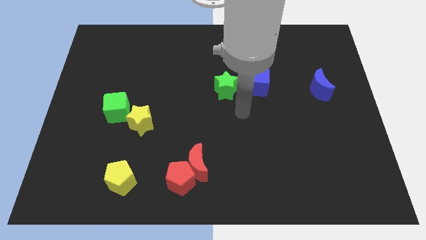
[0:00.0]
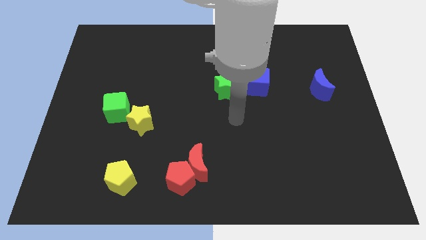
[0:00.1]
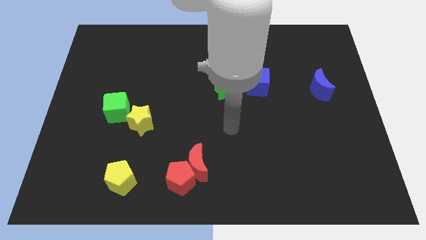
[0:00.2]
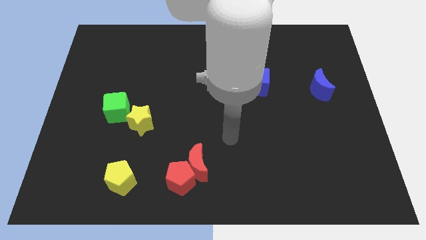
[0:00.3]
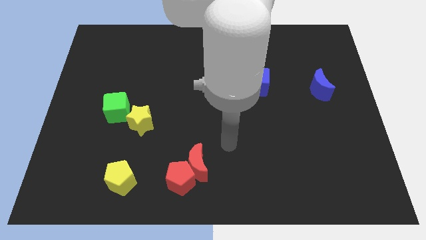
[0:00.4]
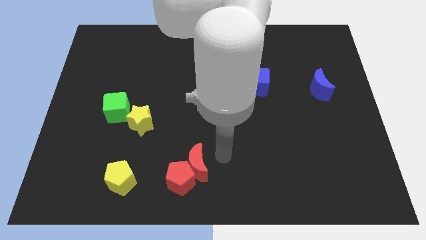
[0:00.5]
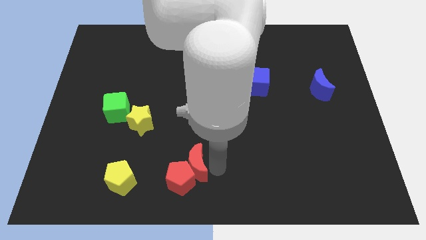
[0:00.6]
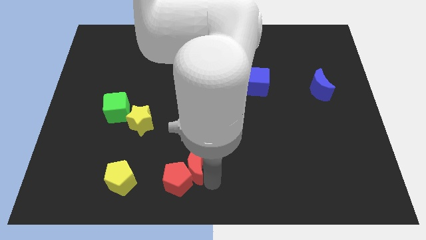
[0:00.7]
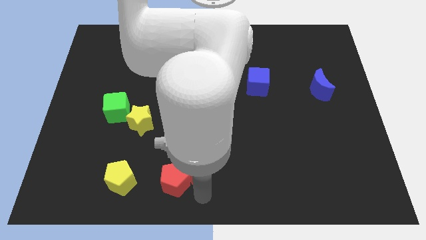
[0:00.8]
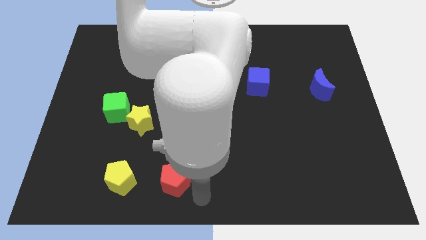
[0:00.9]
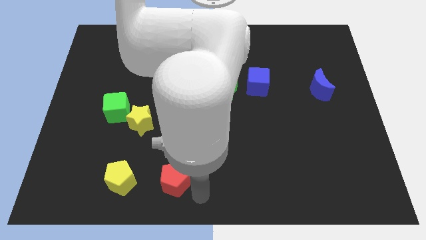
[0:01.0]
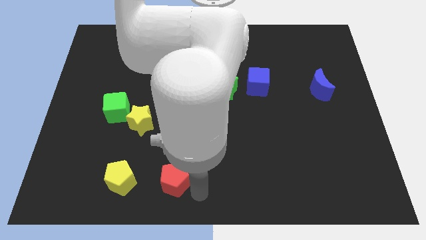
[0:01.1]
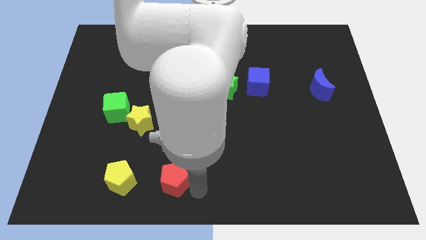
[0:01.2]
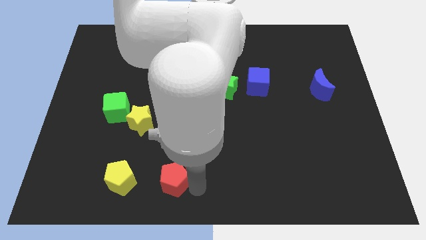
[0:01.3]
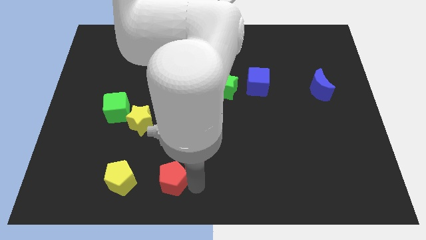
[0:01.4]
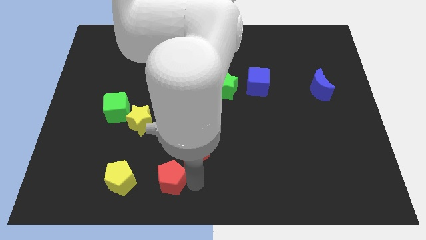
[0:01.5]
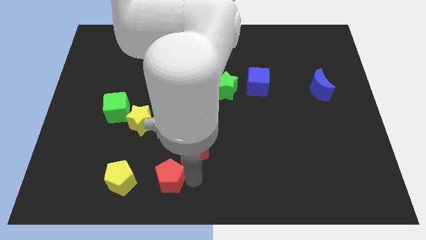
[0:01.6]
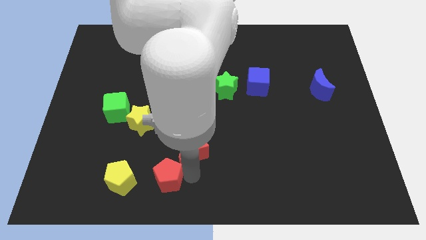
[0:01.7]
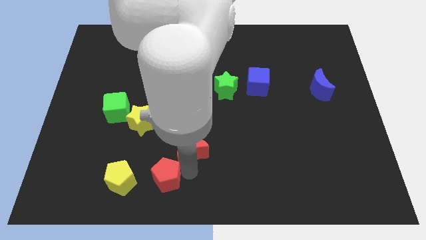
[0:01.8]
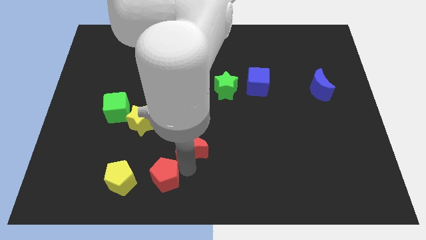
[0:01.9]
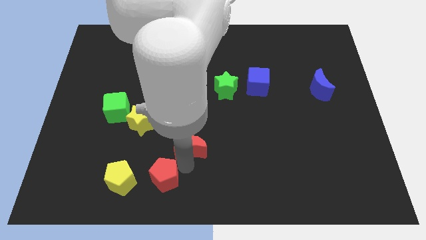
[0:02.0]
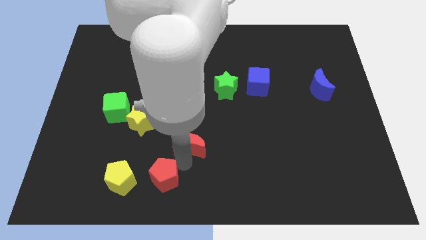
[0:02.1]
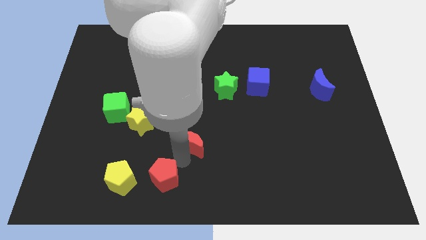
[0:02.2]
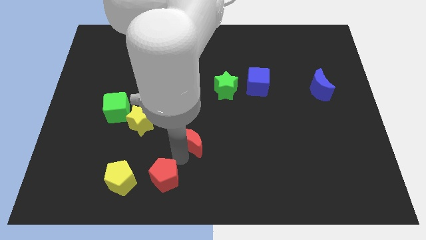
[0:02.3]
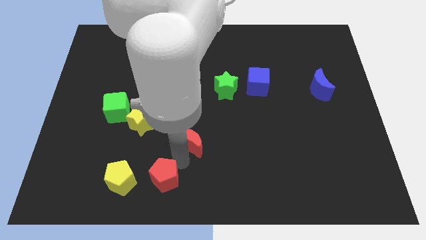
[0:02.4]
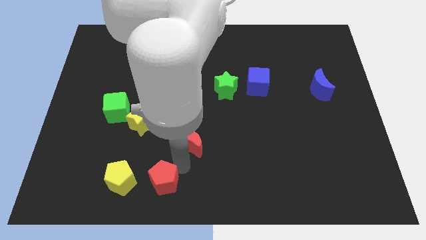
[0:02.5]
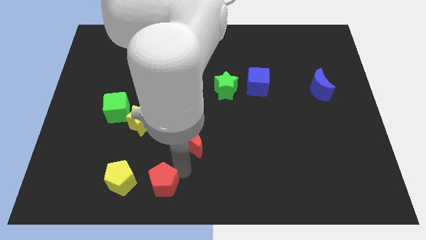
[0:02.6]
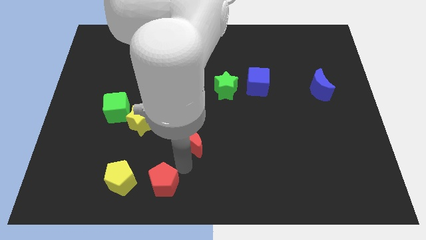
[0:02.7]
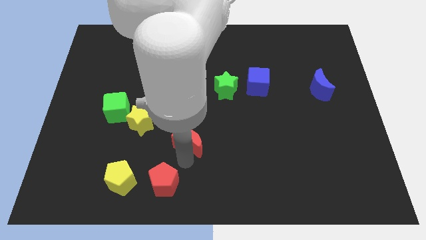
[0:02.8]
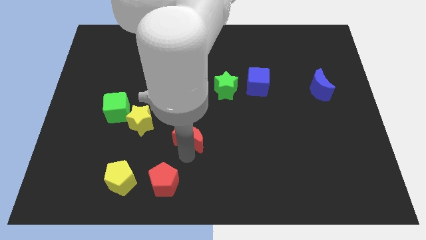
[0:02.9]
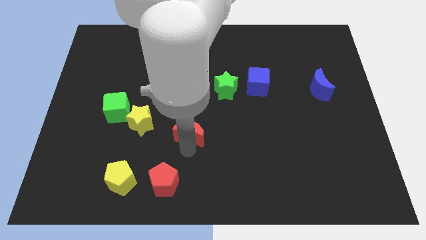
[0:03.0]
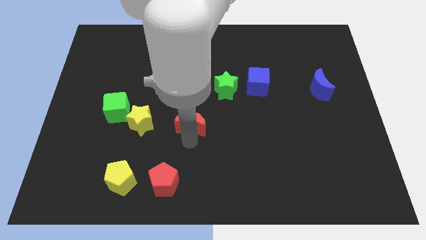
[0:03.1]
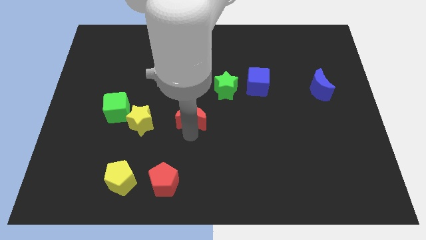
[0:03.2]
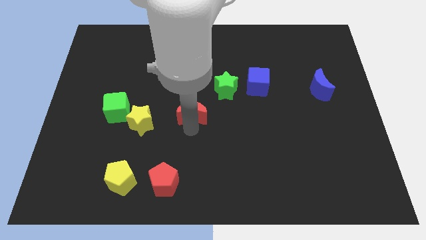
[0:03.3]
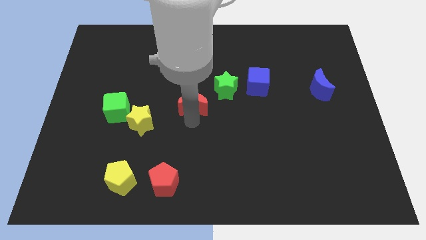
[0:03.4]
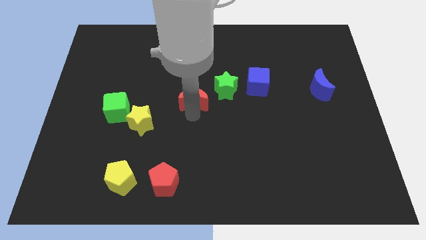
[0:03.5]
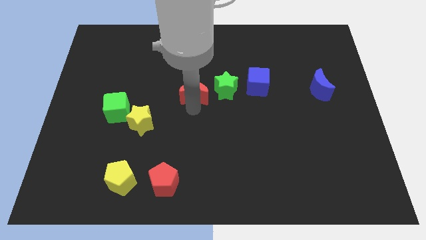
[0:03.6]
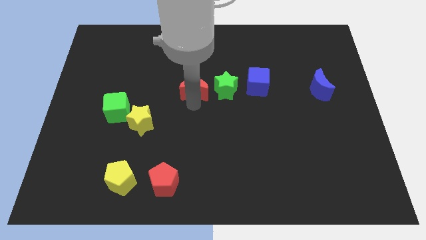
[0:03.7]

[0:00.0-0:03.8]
slide the red moon up

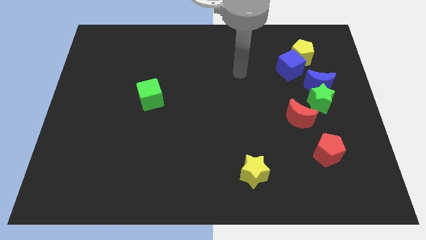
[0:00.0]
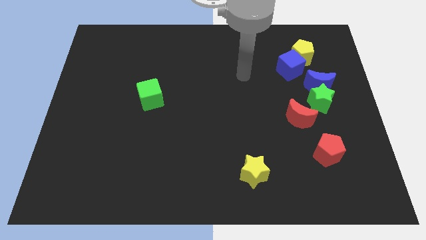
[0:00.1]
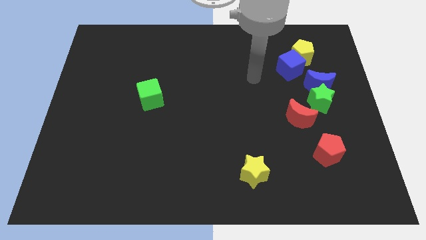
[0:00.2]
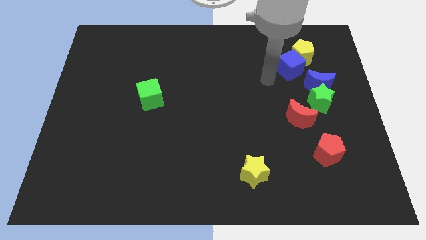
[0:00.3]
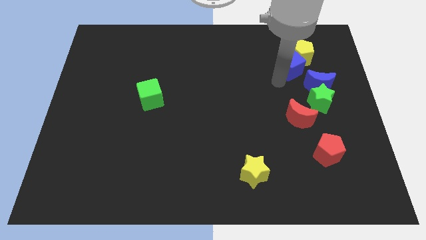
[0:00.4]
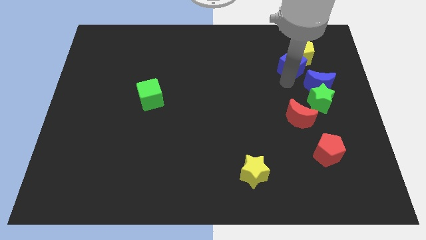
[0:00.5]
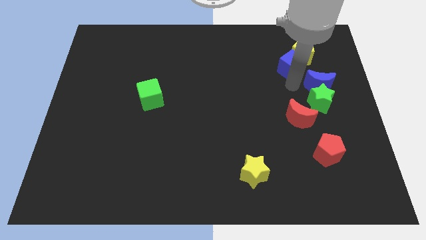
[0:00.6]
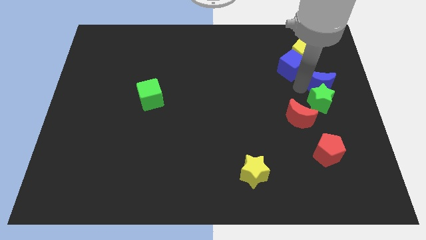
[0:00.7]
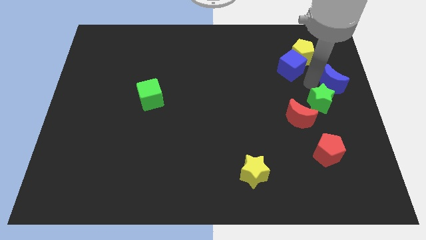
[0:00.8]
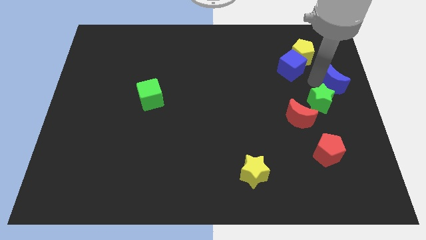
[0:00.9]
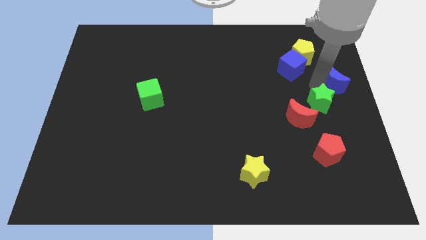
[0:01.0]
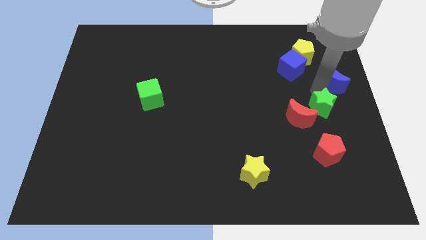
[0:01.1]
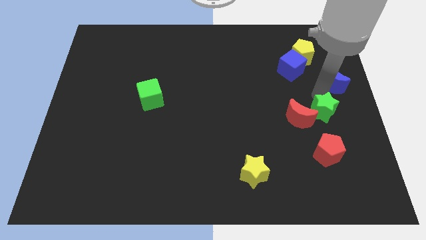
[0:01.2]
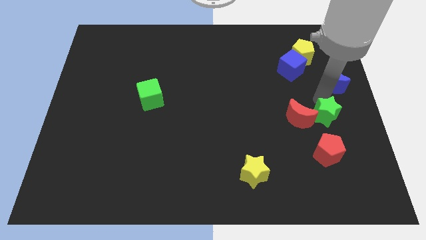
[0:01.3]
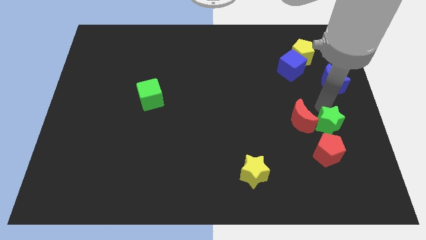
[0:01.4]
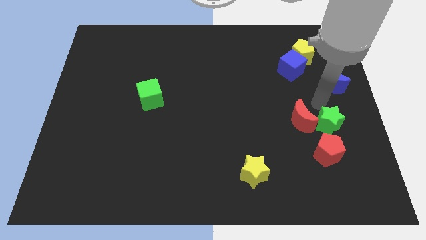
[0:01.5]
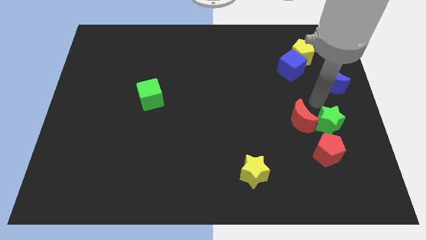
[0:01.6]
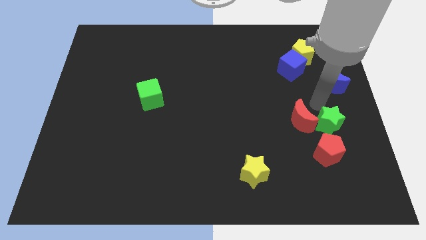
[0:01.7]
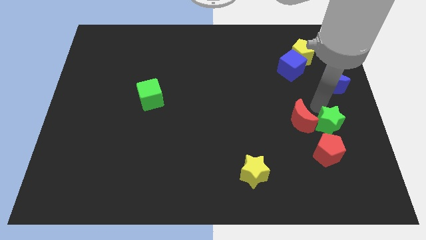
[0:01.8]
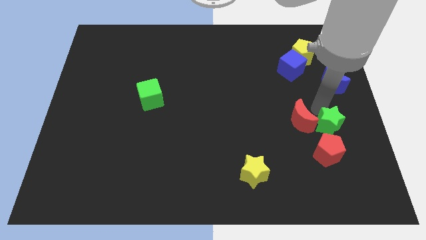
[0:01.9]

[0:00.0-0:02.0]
move the green star a bit down

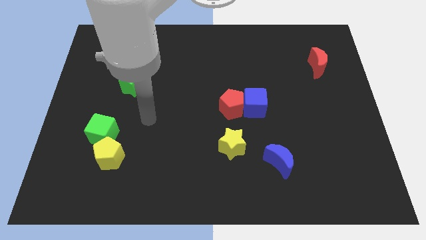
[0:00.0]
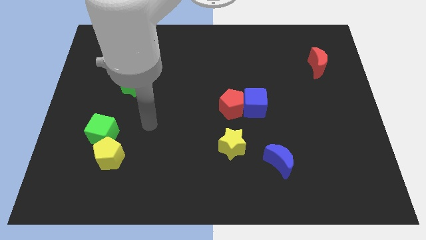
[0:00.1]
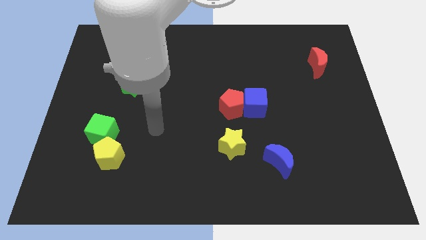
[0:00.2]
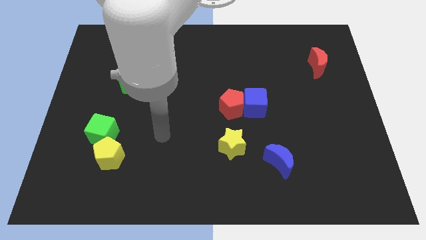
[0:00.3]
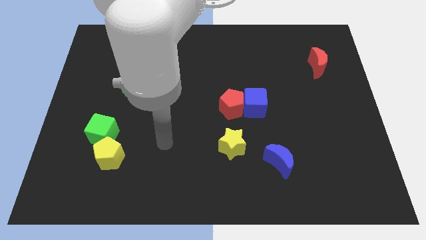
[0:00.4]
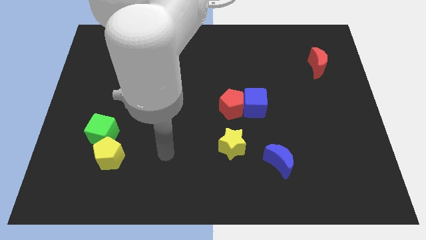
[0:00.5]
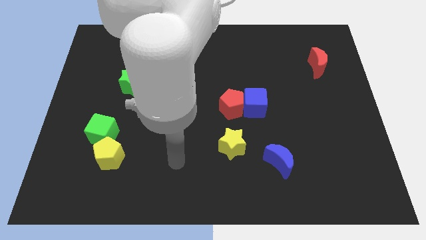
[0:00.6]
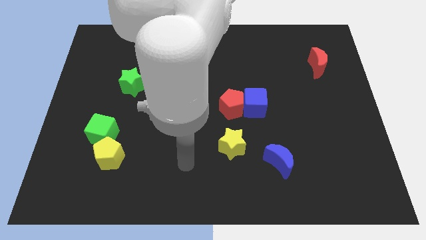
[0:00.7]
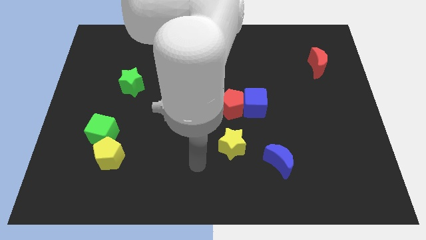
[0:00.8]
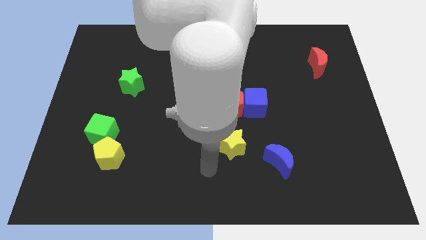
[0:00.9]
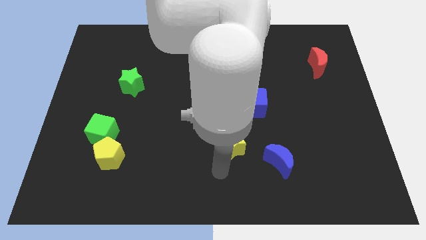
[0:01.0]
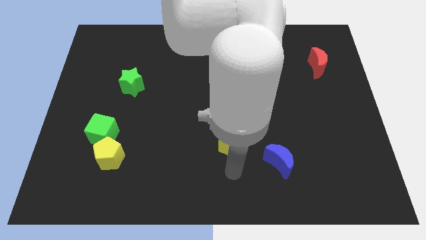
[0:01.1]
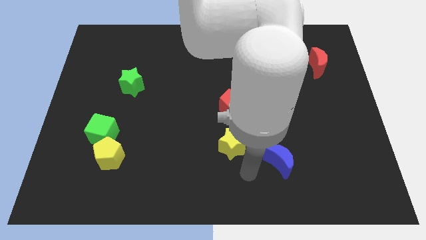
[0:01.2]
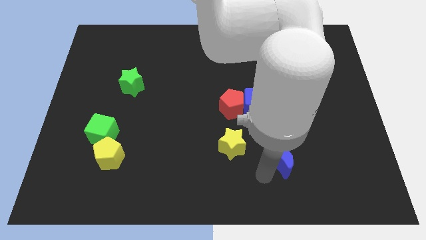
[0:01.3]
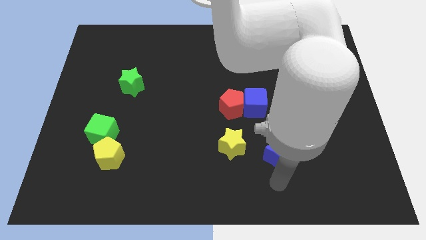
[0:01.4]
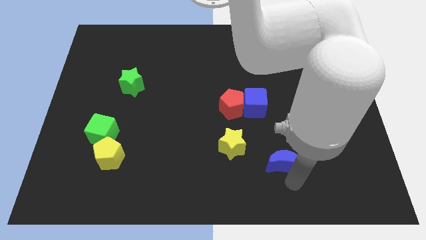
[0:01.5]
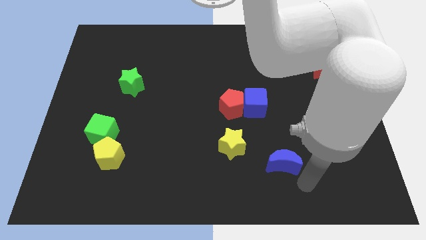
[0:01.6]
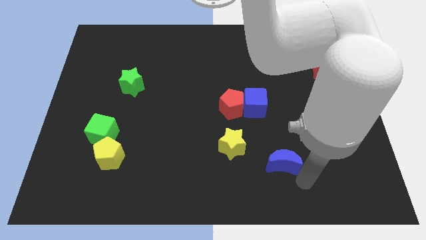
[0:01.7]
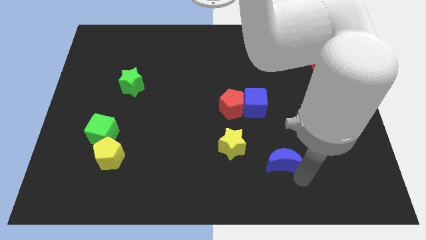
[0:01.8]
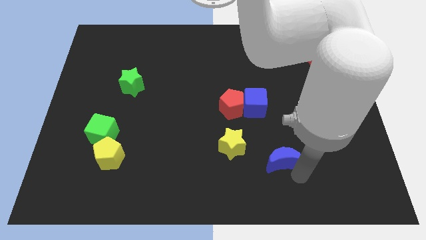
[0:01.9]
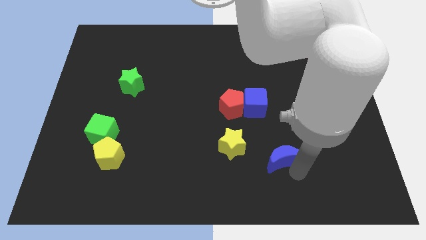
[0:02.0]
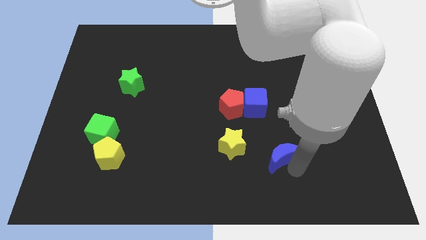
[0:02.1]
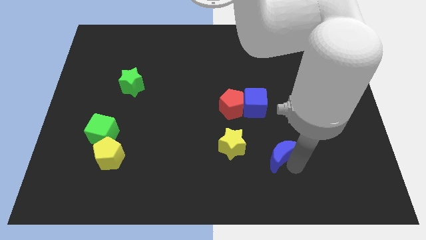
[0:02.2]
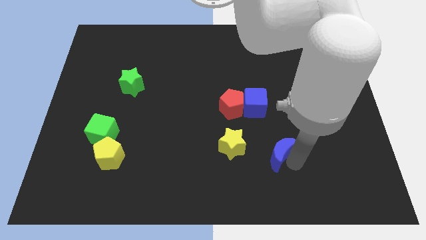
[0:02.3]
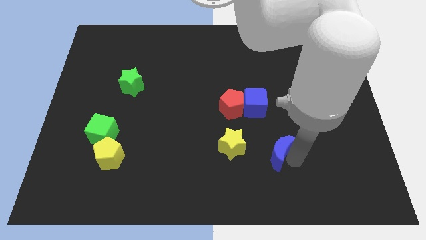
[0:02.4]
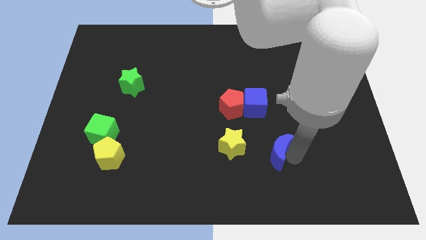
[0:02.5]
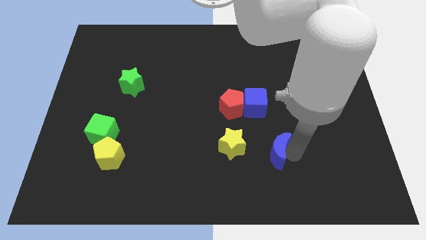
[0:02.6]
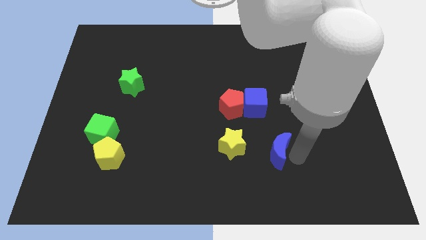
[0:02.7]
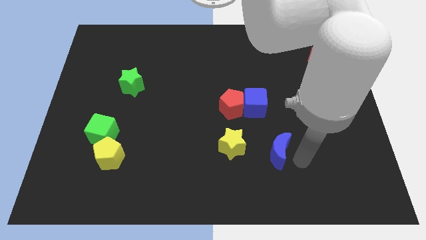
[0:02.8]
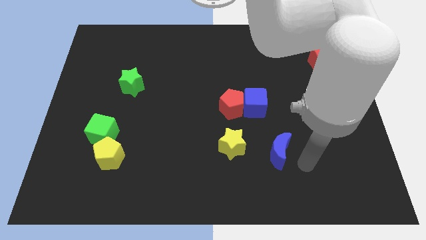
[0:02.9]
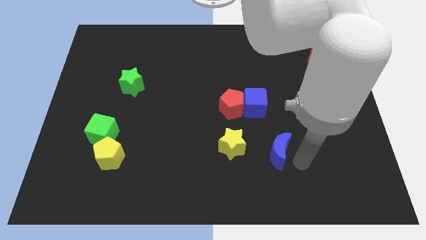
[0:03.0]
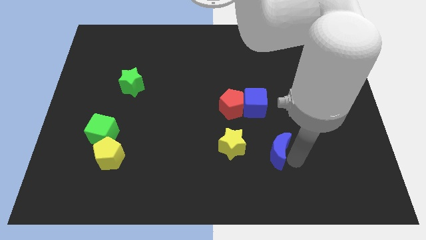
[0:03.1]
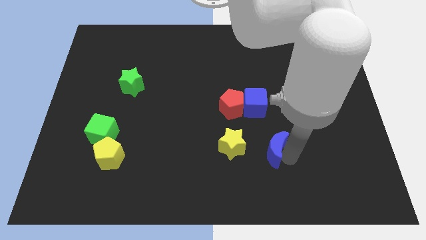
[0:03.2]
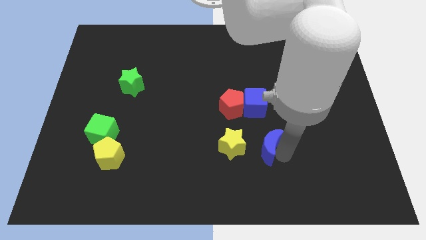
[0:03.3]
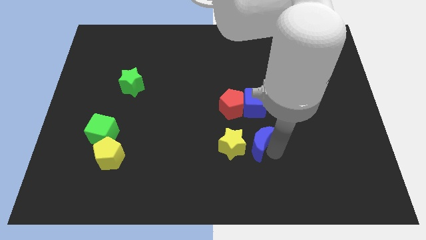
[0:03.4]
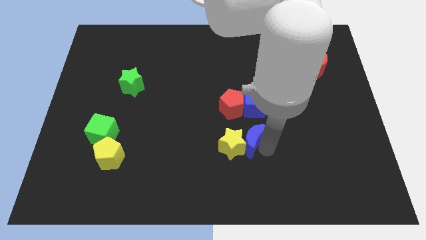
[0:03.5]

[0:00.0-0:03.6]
slightly push the blue moon diagonally upwards and to the left
